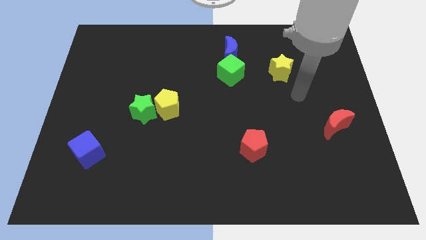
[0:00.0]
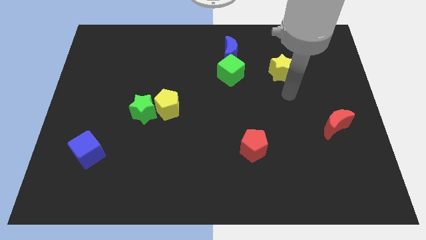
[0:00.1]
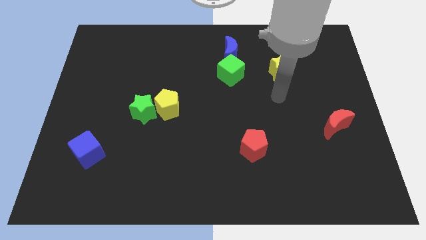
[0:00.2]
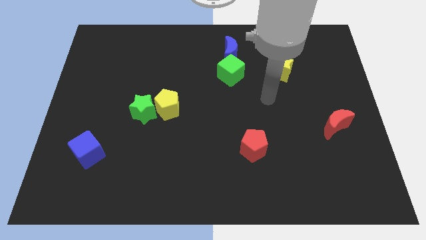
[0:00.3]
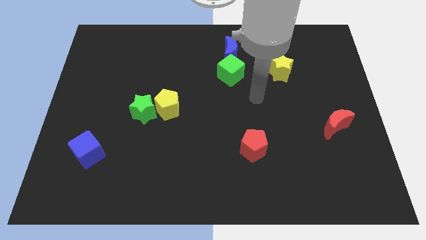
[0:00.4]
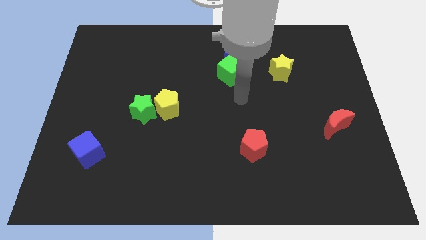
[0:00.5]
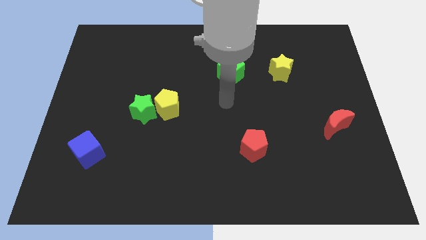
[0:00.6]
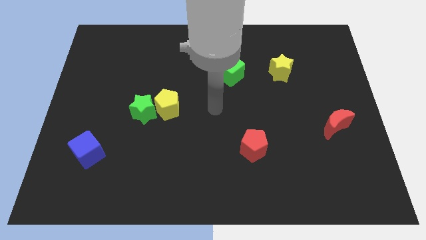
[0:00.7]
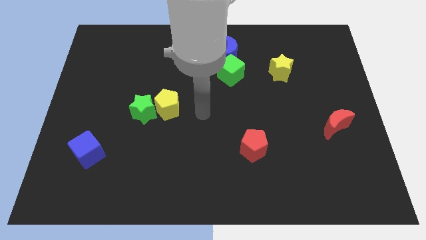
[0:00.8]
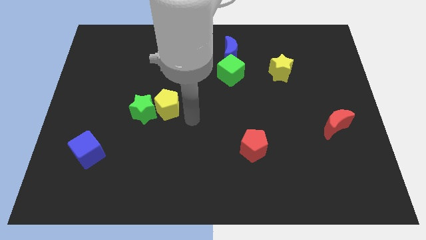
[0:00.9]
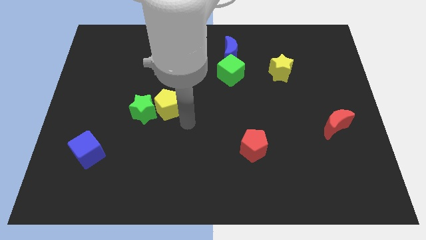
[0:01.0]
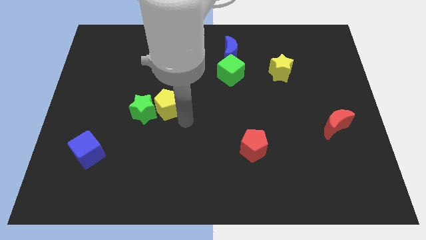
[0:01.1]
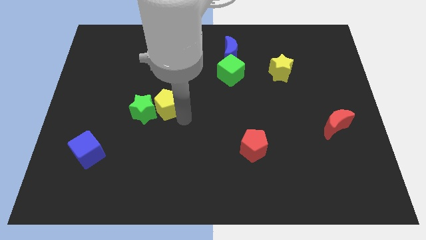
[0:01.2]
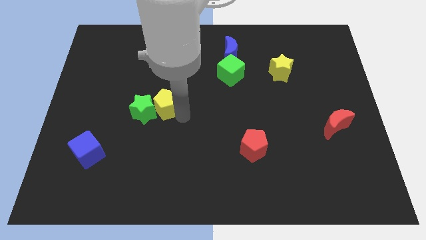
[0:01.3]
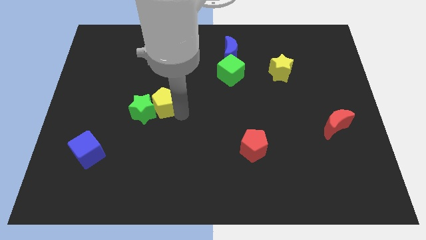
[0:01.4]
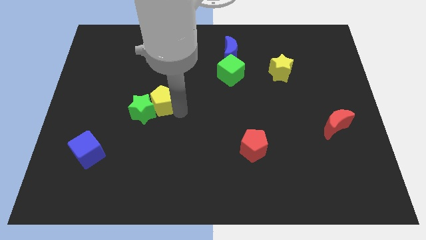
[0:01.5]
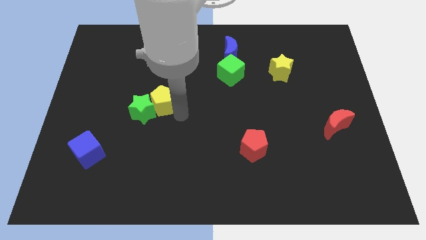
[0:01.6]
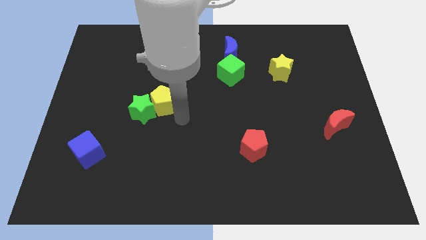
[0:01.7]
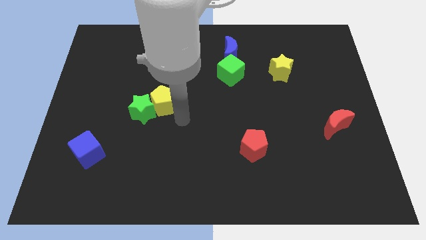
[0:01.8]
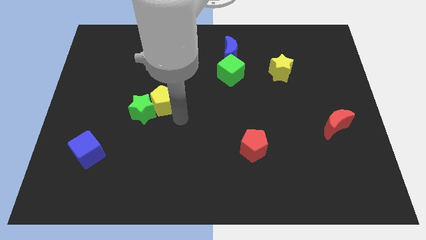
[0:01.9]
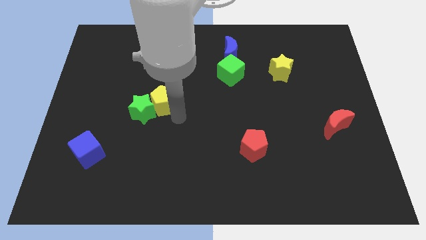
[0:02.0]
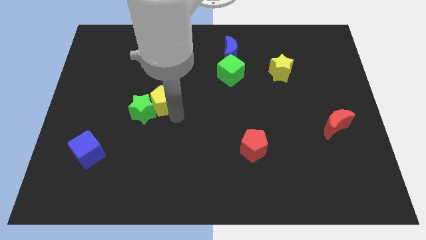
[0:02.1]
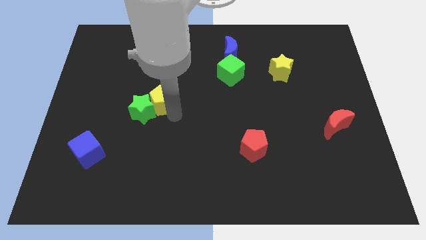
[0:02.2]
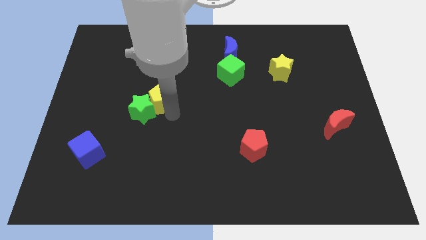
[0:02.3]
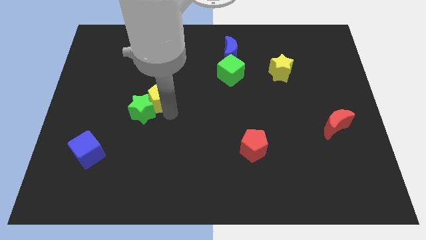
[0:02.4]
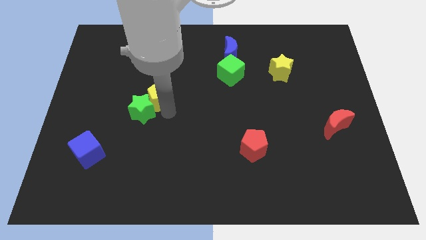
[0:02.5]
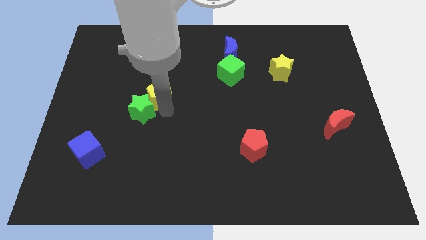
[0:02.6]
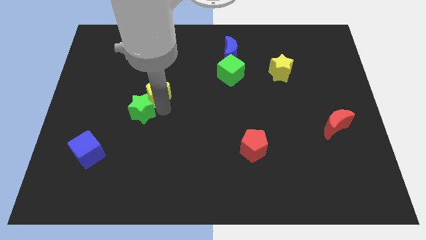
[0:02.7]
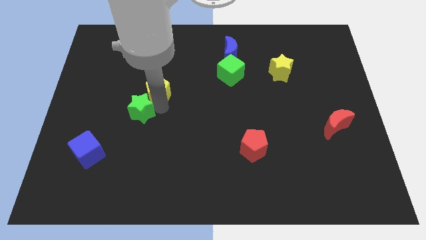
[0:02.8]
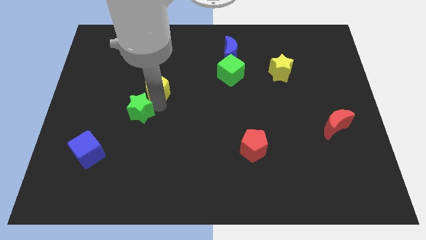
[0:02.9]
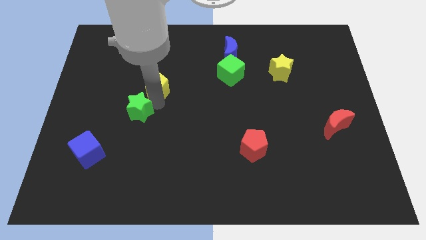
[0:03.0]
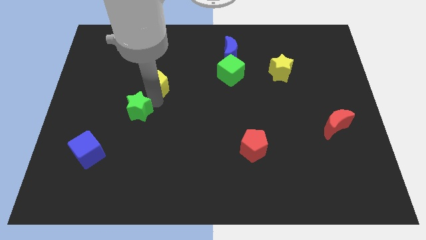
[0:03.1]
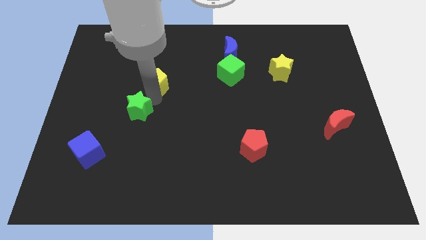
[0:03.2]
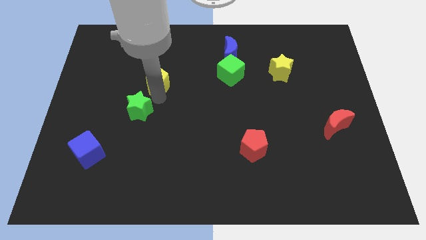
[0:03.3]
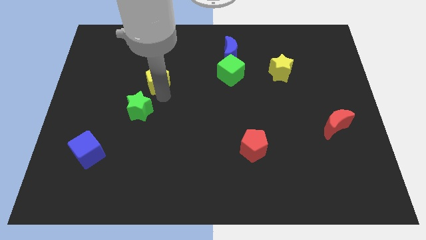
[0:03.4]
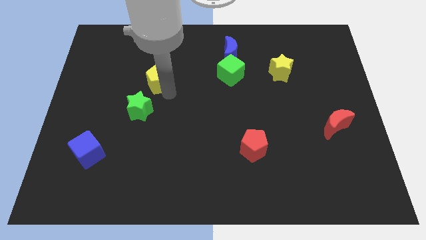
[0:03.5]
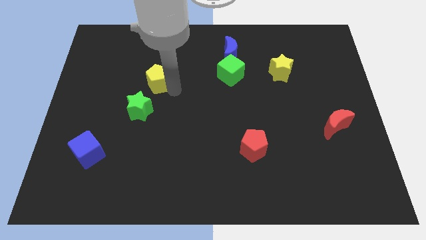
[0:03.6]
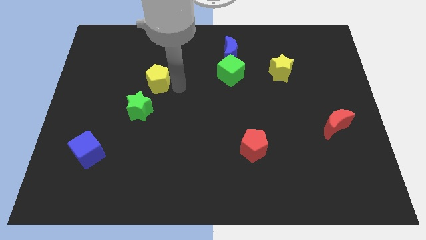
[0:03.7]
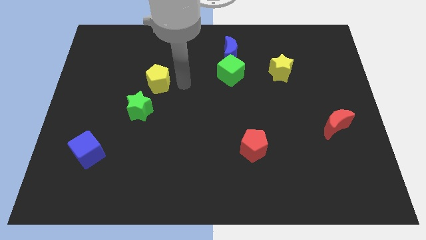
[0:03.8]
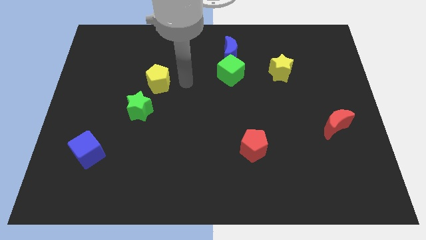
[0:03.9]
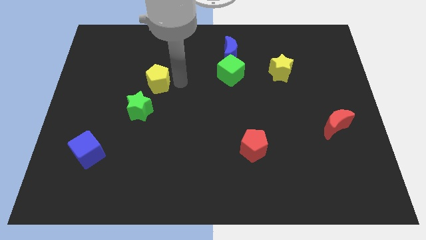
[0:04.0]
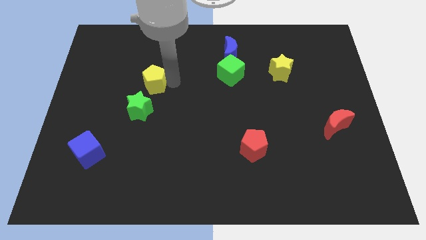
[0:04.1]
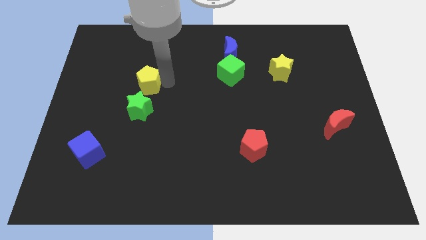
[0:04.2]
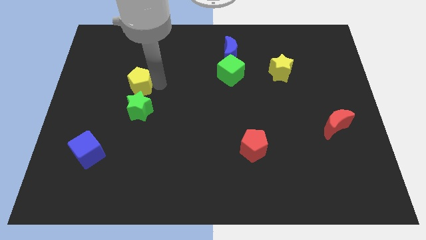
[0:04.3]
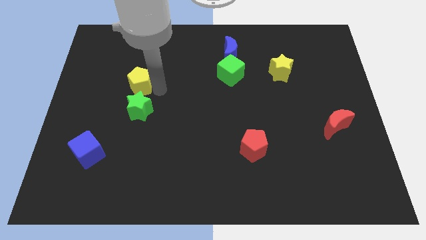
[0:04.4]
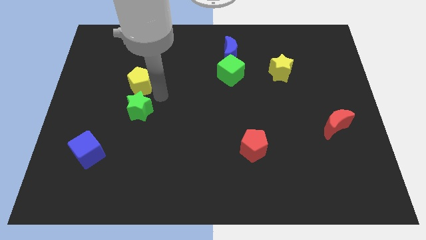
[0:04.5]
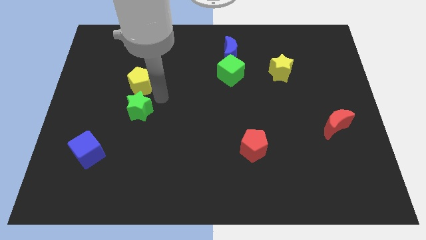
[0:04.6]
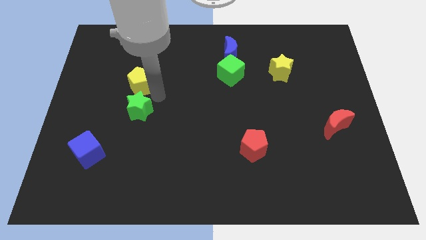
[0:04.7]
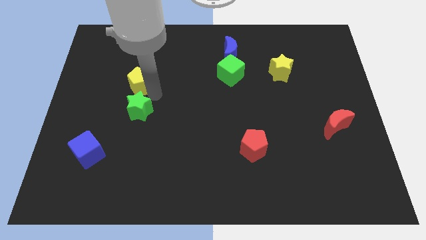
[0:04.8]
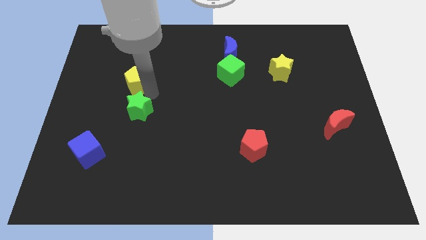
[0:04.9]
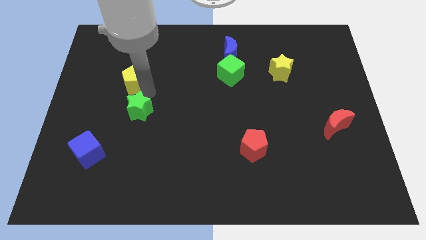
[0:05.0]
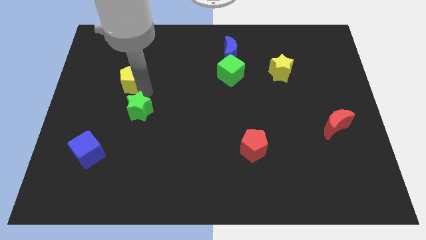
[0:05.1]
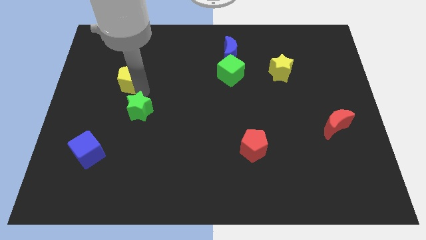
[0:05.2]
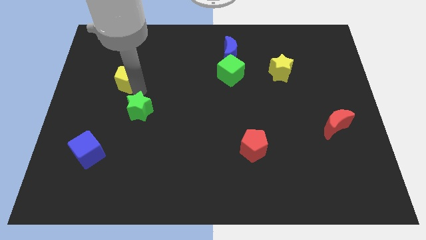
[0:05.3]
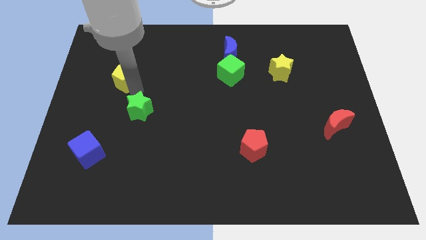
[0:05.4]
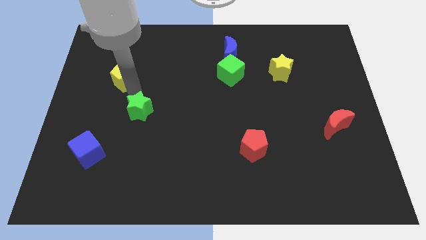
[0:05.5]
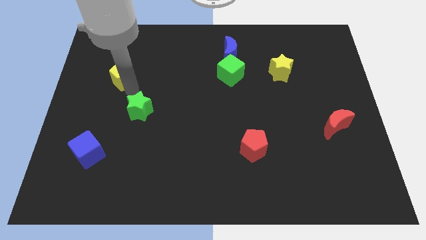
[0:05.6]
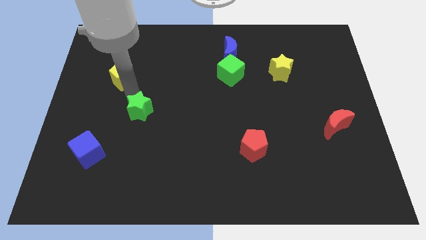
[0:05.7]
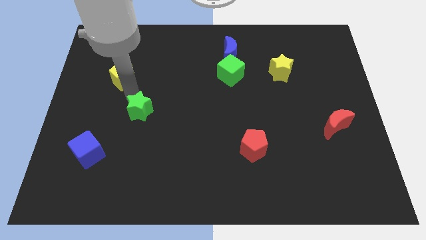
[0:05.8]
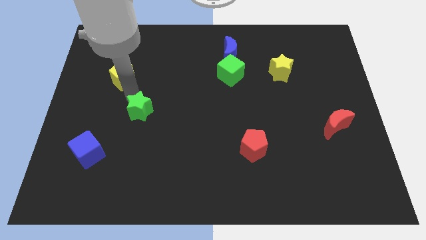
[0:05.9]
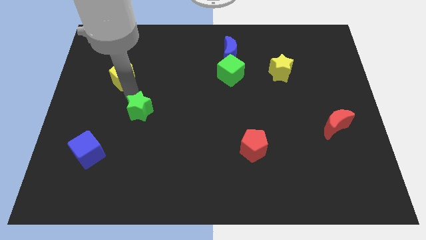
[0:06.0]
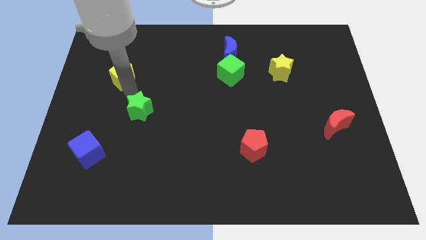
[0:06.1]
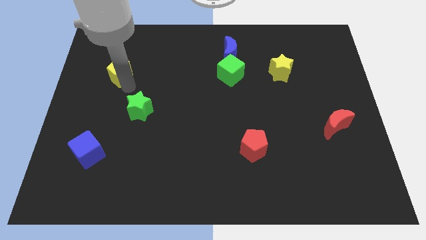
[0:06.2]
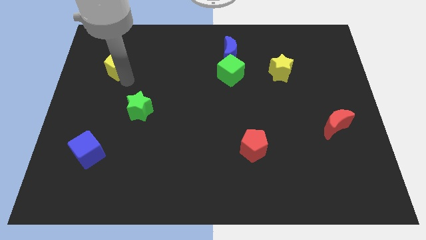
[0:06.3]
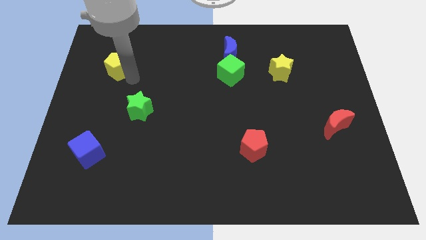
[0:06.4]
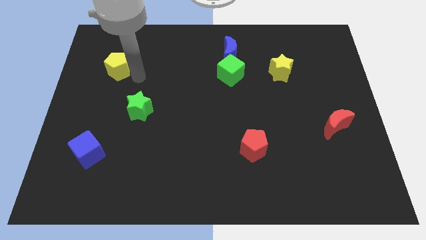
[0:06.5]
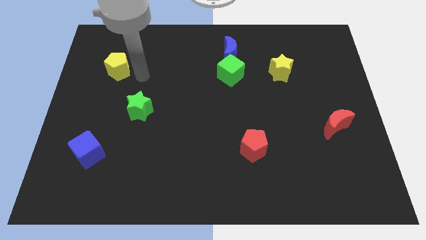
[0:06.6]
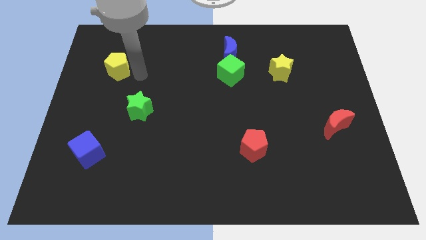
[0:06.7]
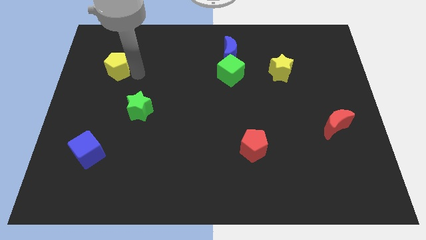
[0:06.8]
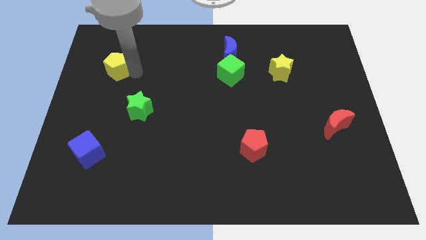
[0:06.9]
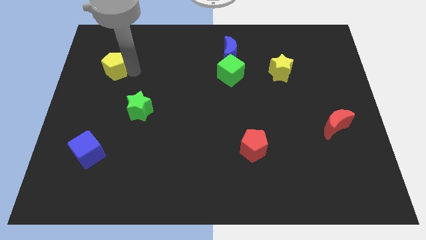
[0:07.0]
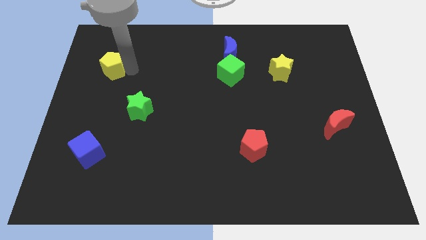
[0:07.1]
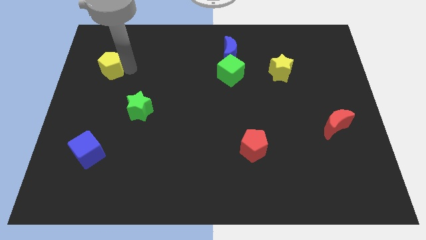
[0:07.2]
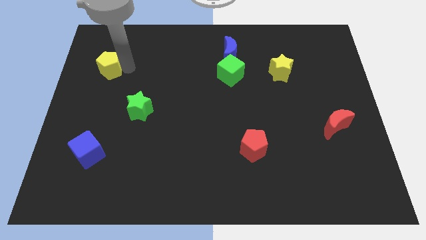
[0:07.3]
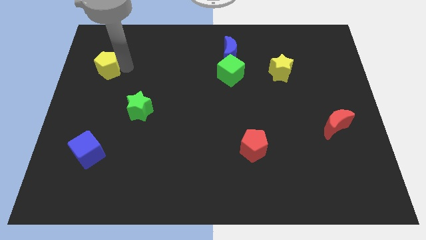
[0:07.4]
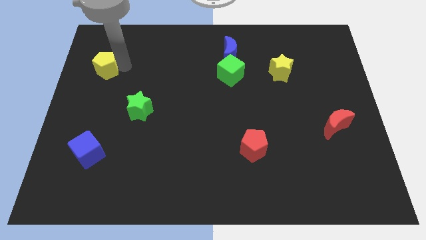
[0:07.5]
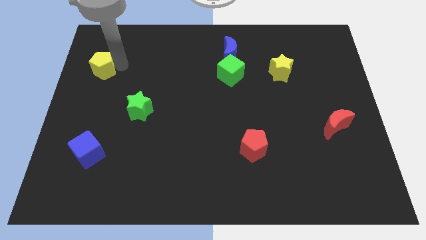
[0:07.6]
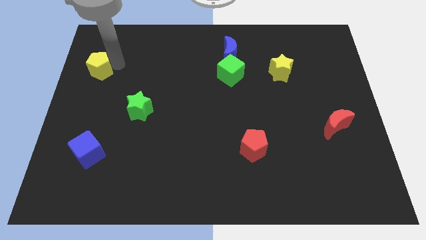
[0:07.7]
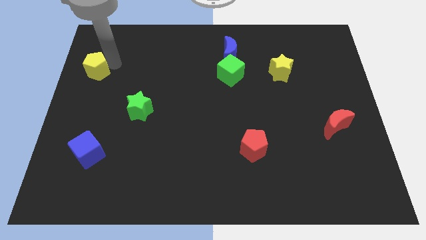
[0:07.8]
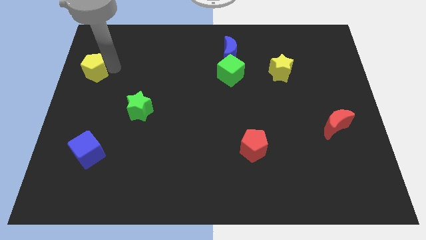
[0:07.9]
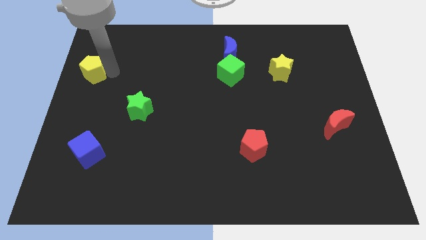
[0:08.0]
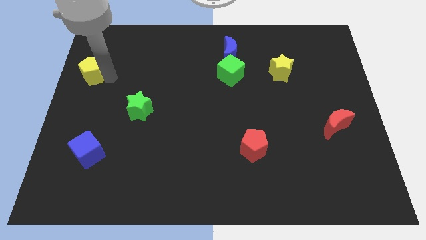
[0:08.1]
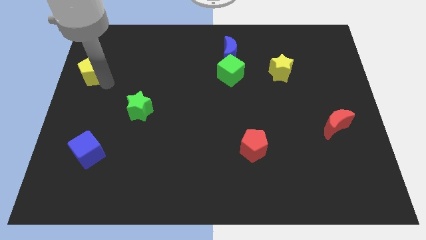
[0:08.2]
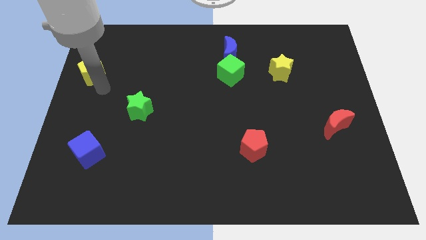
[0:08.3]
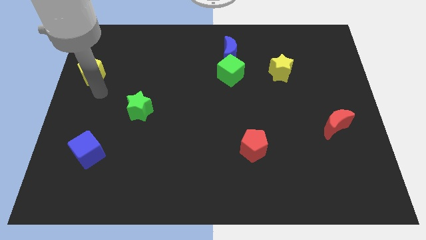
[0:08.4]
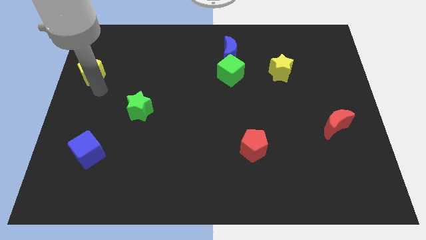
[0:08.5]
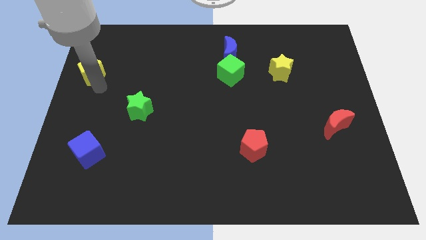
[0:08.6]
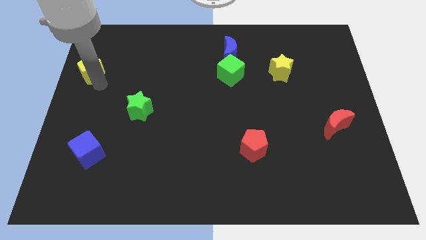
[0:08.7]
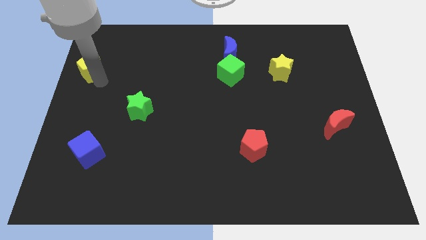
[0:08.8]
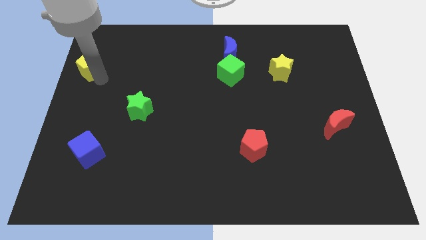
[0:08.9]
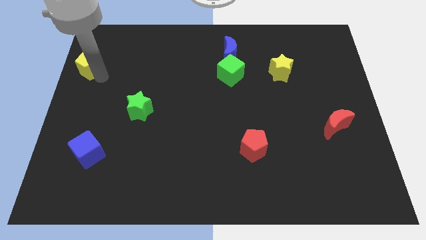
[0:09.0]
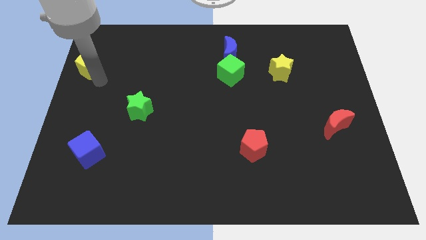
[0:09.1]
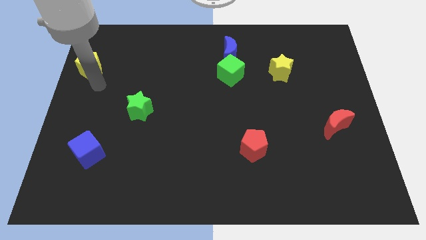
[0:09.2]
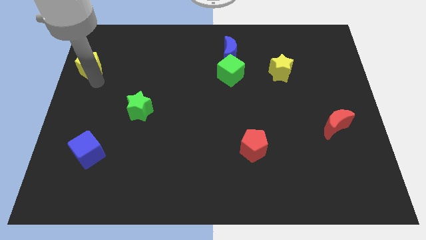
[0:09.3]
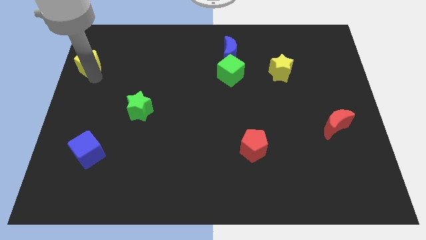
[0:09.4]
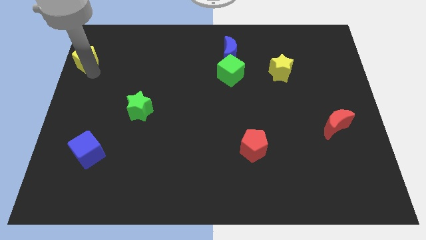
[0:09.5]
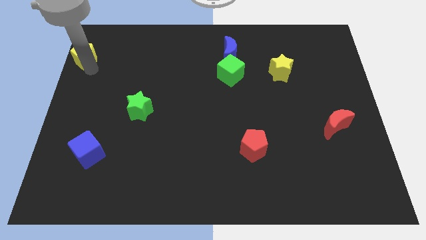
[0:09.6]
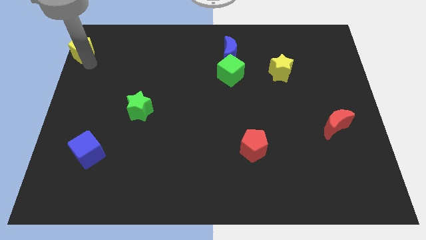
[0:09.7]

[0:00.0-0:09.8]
slide the yellow pentagon to the top left corner
